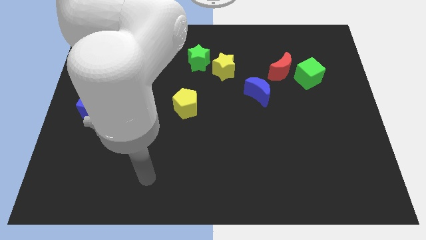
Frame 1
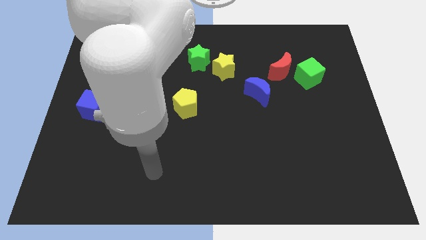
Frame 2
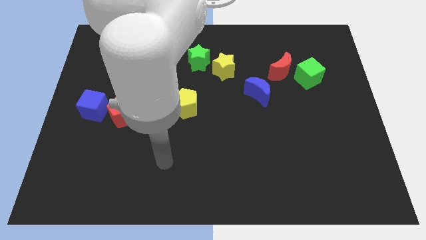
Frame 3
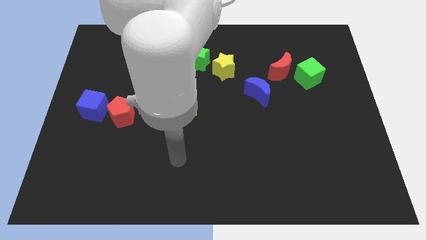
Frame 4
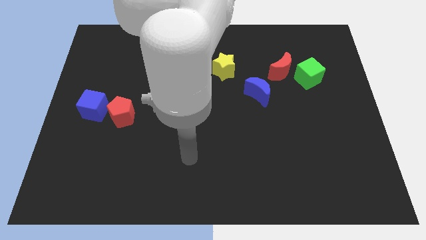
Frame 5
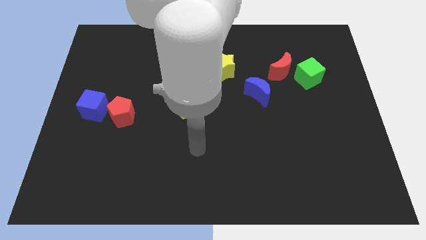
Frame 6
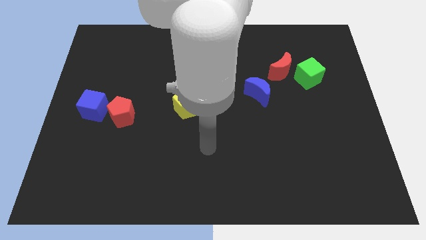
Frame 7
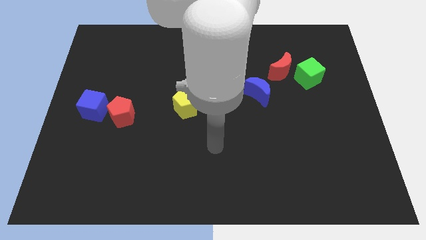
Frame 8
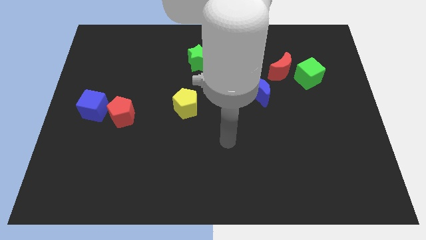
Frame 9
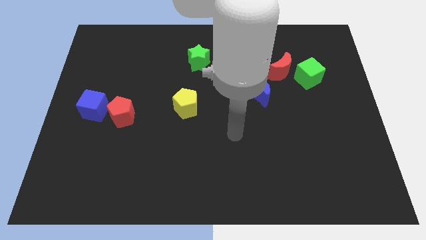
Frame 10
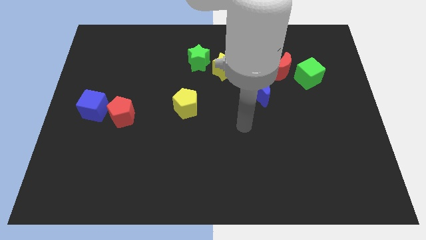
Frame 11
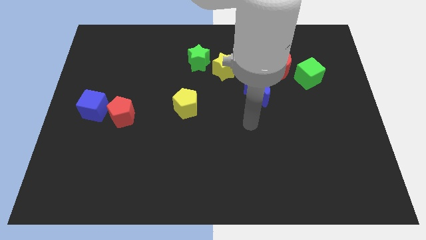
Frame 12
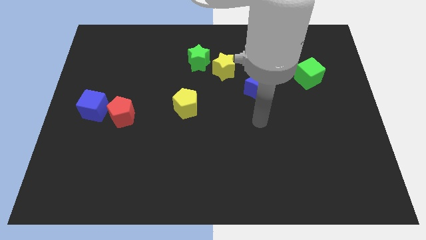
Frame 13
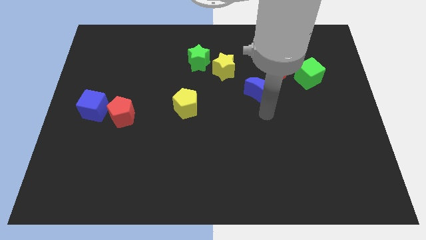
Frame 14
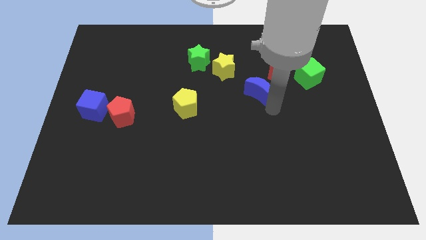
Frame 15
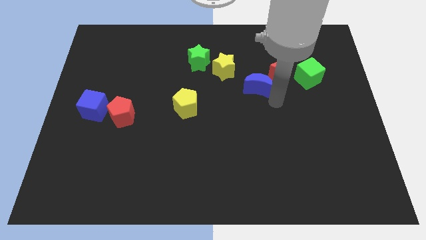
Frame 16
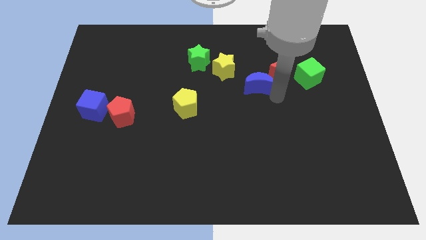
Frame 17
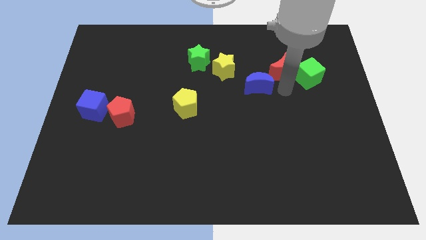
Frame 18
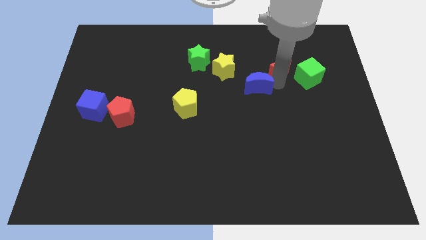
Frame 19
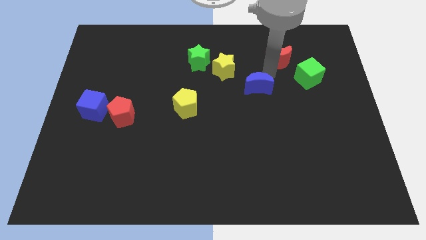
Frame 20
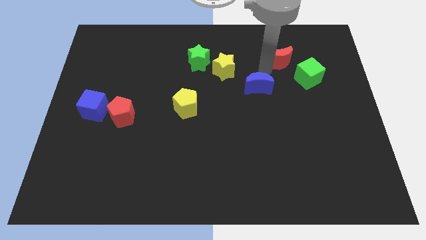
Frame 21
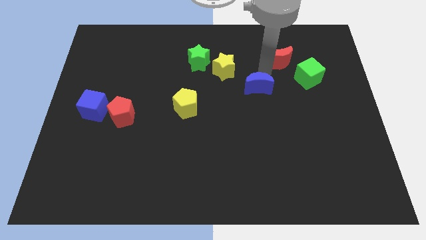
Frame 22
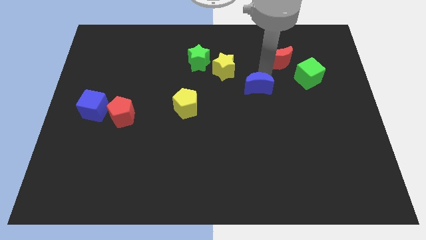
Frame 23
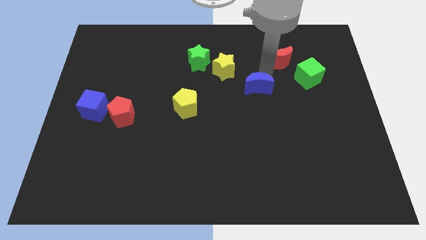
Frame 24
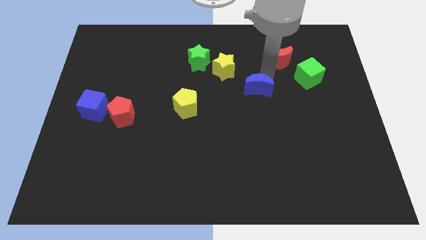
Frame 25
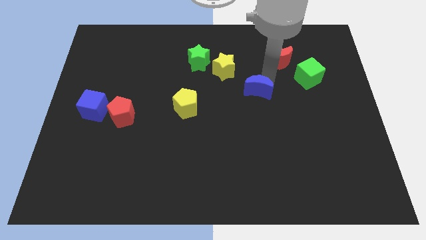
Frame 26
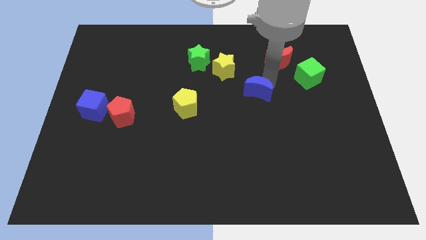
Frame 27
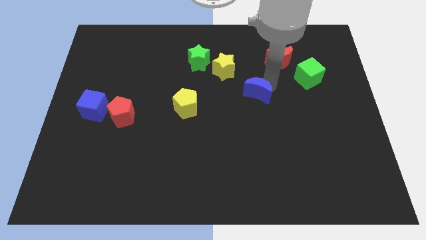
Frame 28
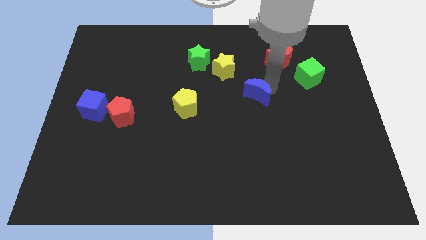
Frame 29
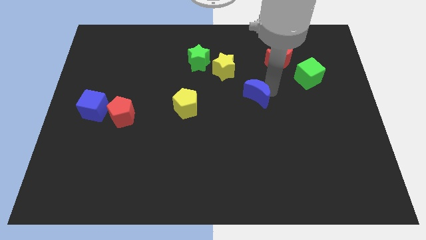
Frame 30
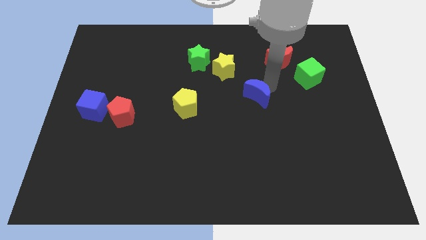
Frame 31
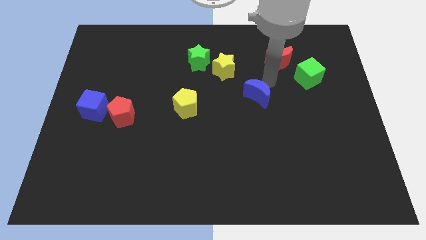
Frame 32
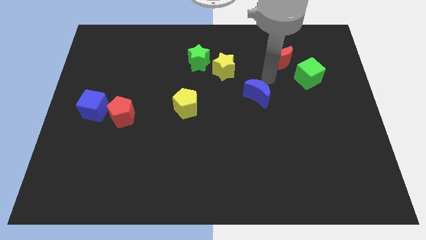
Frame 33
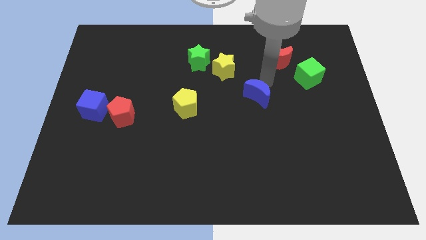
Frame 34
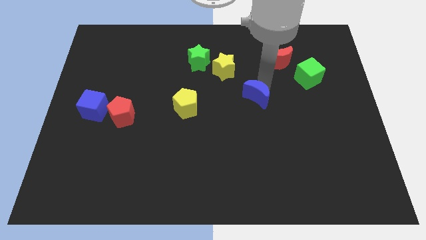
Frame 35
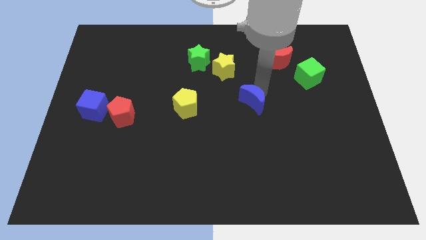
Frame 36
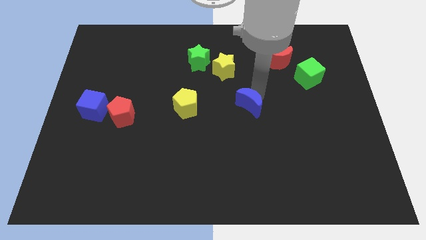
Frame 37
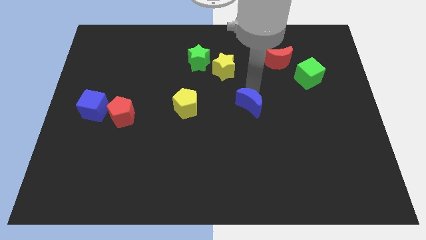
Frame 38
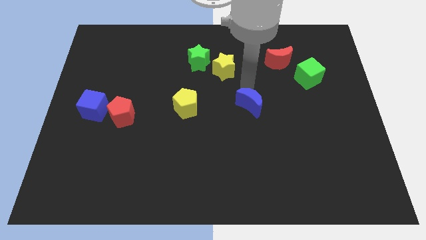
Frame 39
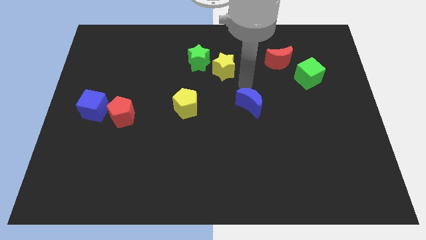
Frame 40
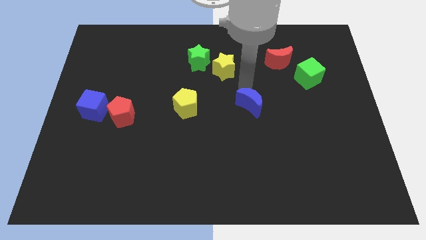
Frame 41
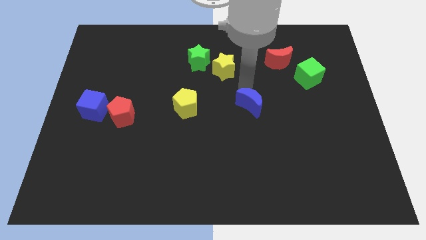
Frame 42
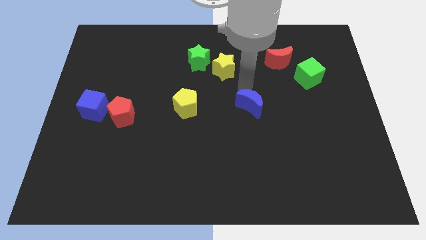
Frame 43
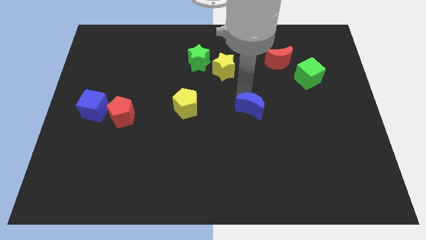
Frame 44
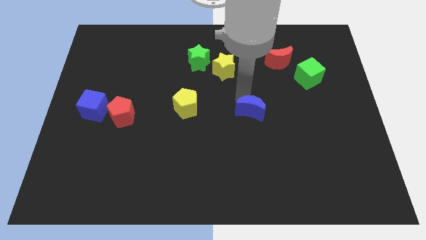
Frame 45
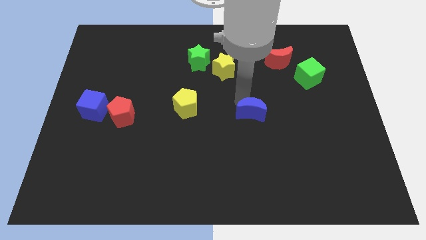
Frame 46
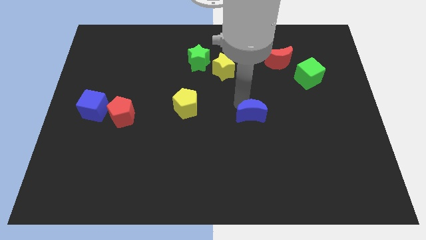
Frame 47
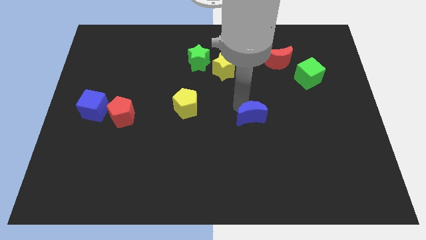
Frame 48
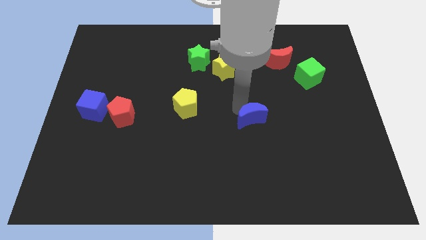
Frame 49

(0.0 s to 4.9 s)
slightly push the blue moon downwards

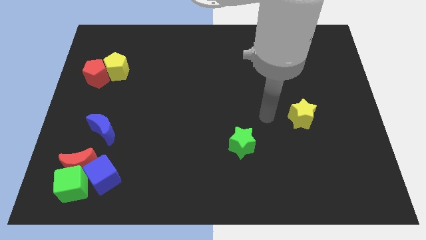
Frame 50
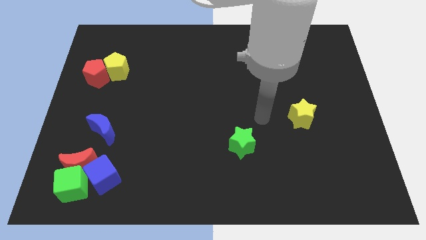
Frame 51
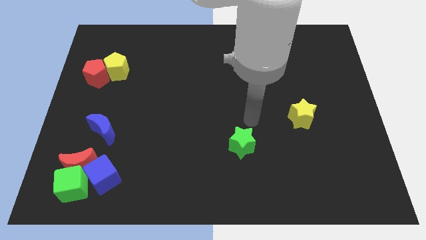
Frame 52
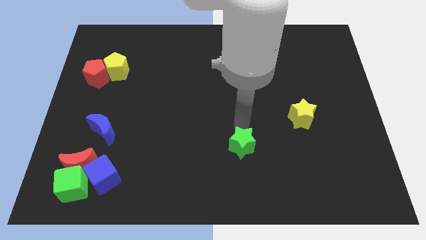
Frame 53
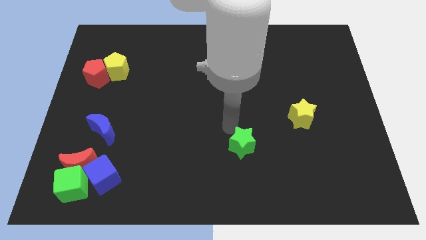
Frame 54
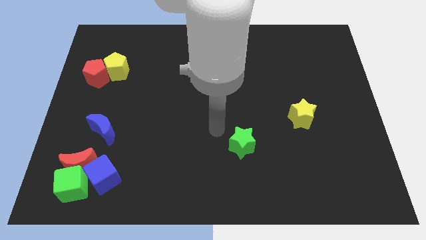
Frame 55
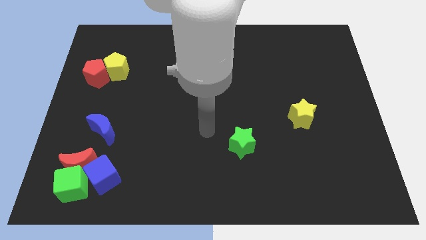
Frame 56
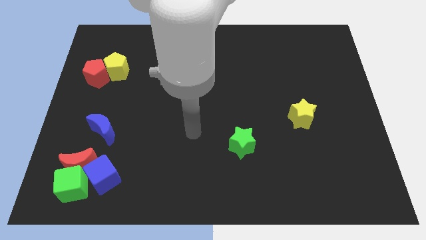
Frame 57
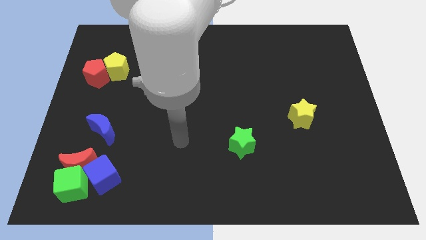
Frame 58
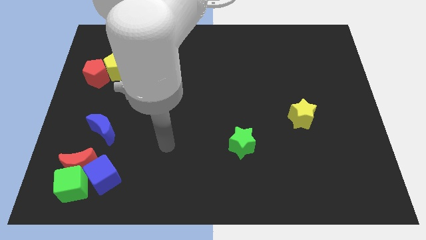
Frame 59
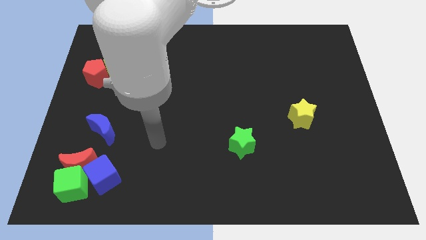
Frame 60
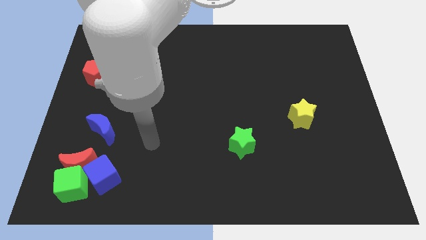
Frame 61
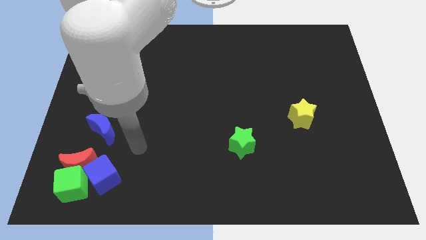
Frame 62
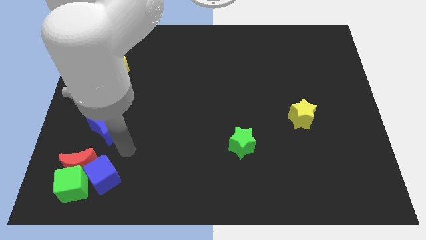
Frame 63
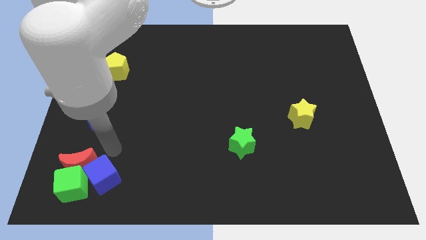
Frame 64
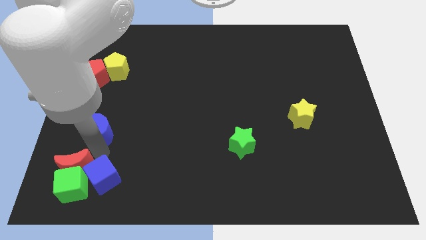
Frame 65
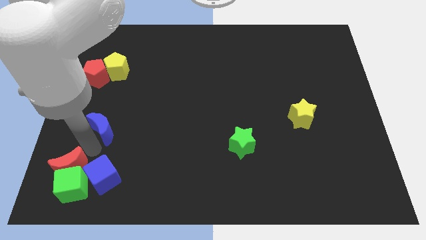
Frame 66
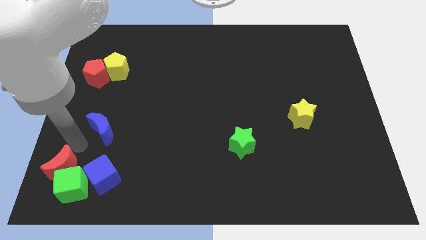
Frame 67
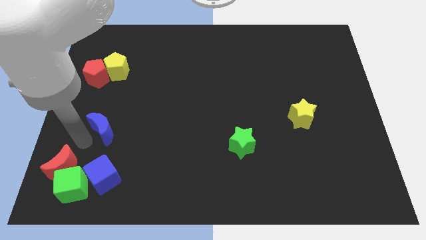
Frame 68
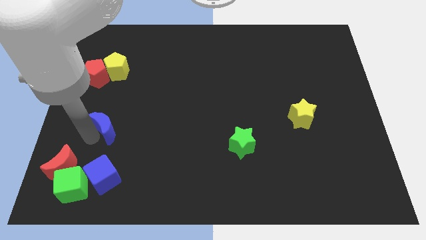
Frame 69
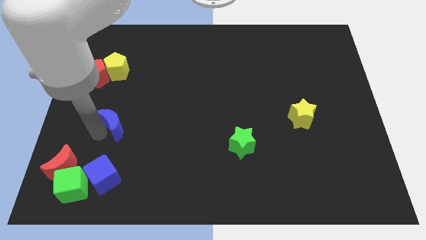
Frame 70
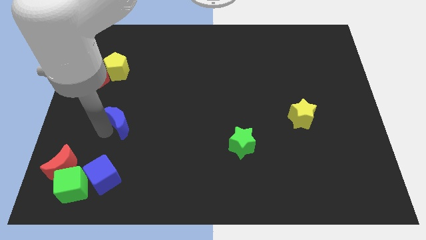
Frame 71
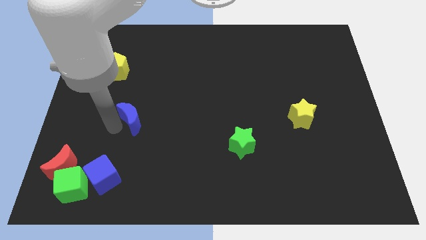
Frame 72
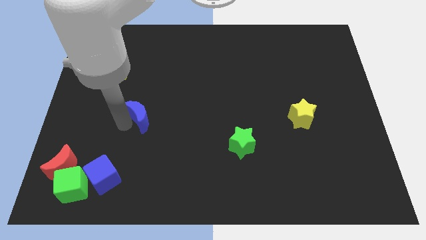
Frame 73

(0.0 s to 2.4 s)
push the blue moon upwards and then to the right somewhat

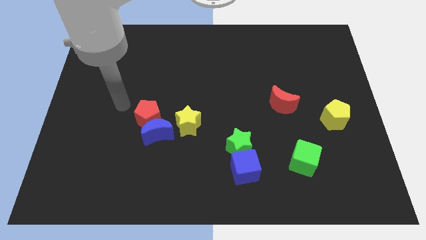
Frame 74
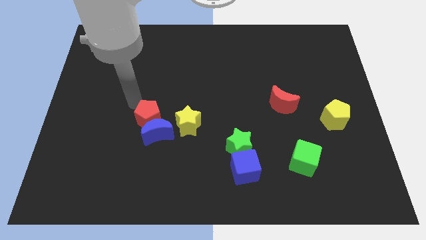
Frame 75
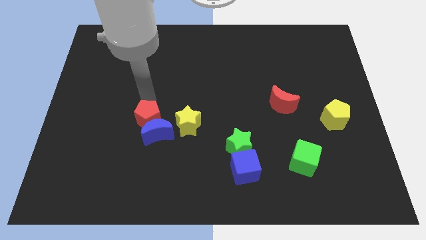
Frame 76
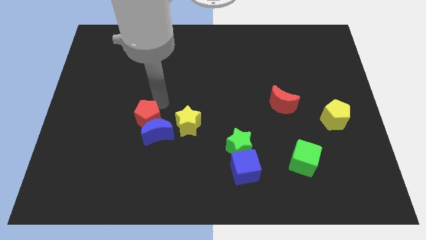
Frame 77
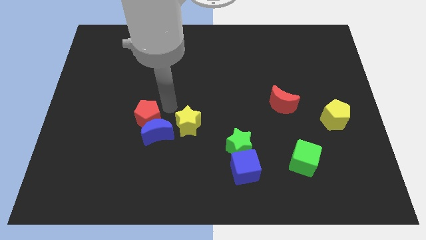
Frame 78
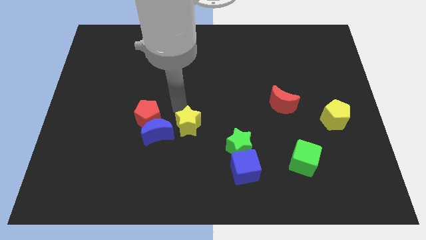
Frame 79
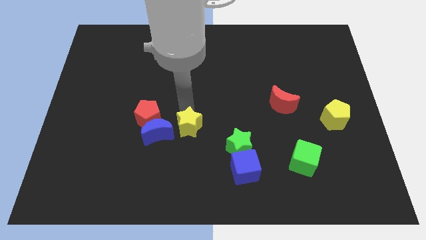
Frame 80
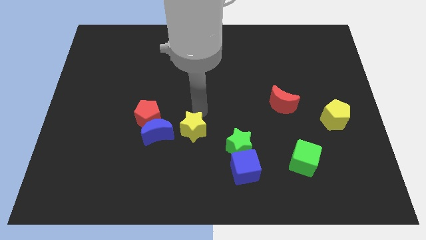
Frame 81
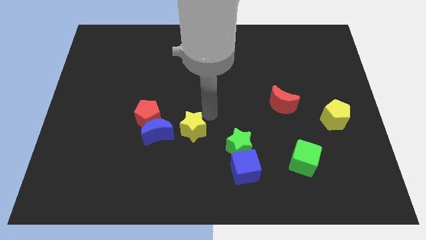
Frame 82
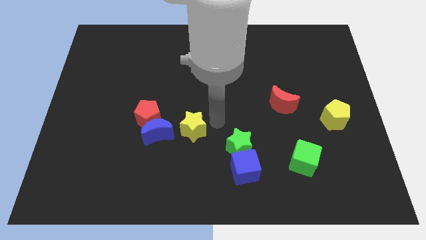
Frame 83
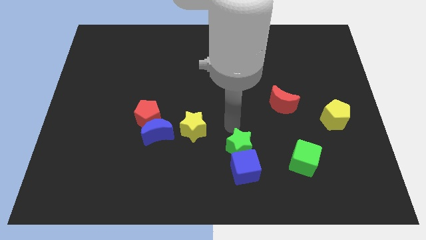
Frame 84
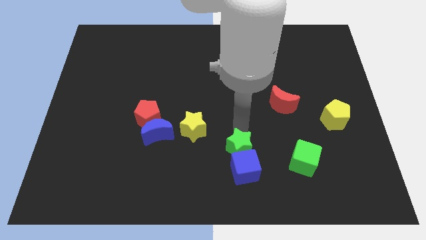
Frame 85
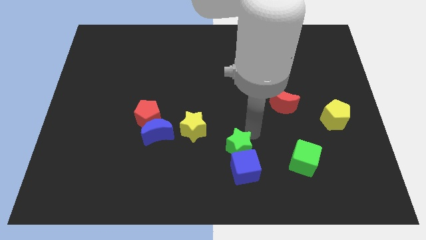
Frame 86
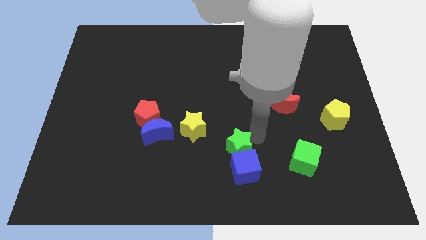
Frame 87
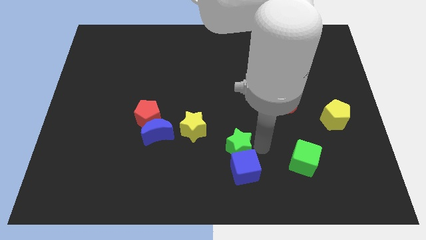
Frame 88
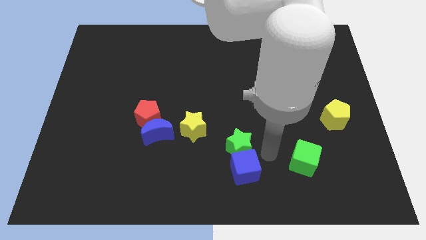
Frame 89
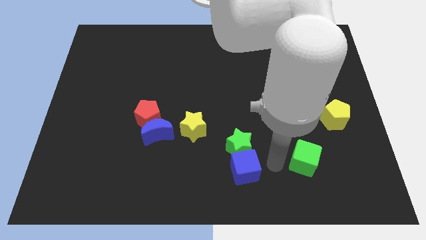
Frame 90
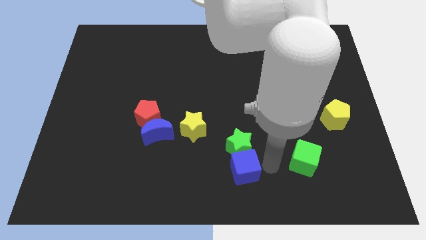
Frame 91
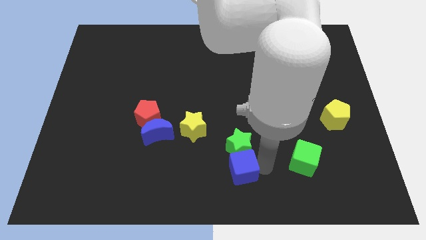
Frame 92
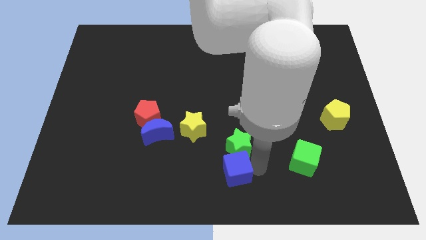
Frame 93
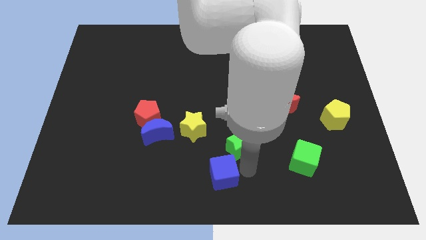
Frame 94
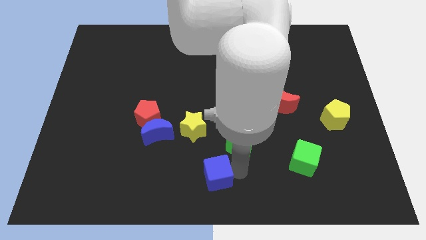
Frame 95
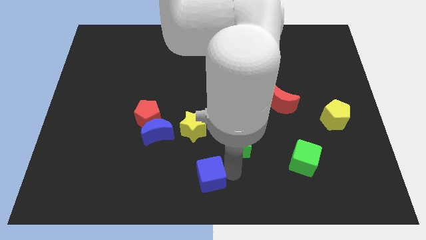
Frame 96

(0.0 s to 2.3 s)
push the blue cube left slightly
